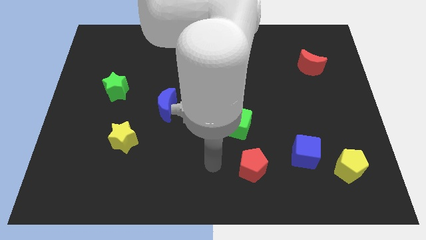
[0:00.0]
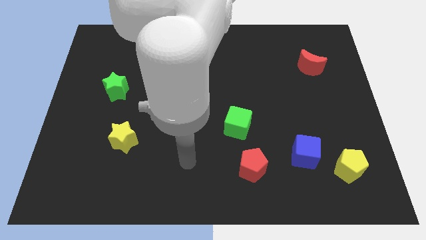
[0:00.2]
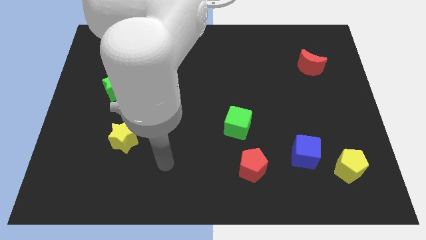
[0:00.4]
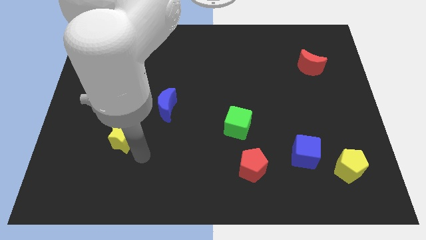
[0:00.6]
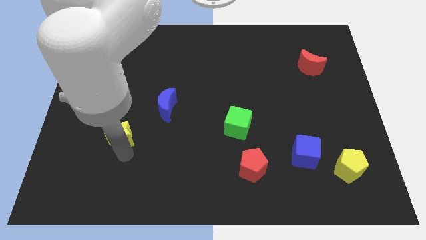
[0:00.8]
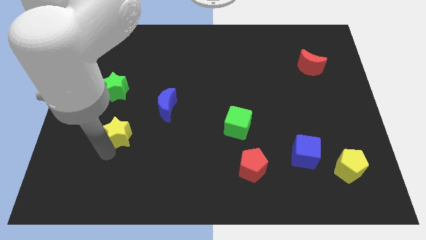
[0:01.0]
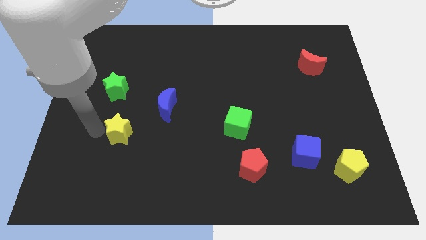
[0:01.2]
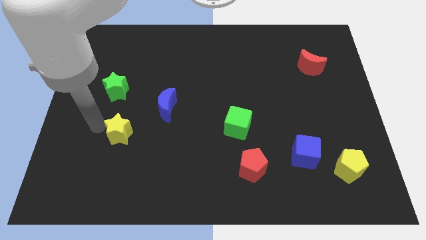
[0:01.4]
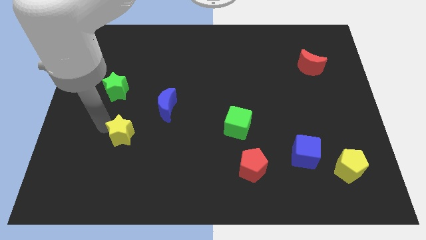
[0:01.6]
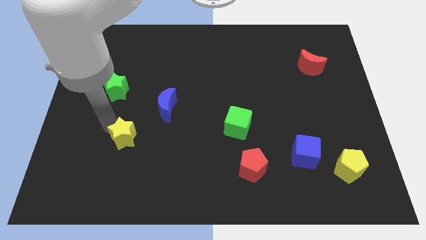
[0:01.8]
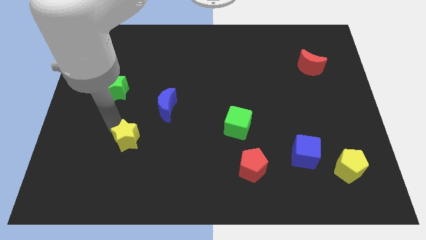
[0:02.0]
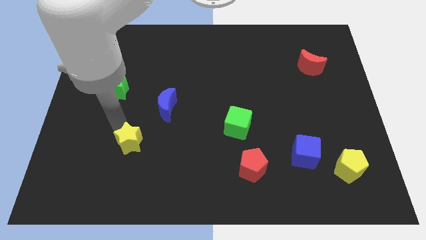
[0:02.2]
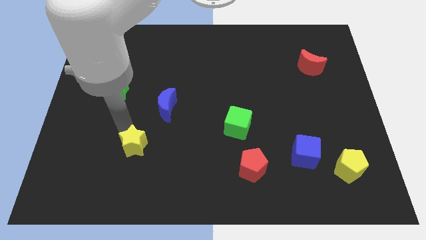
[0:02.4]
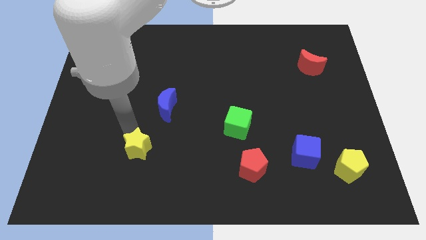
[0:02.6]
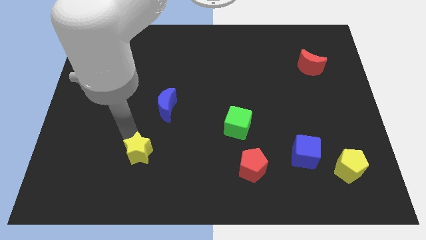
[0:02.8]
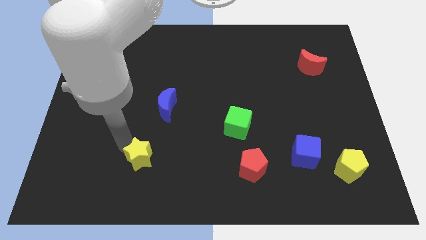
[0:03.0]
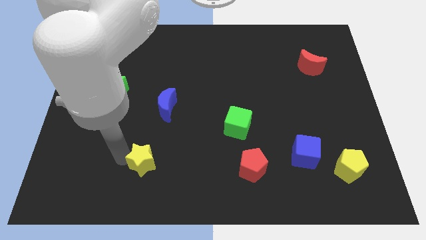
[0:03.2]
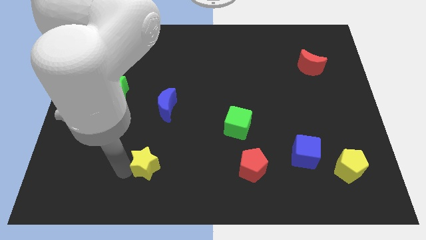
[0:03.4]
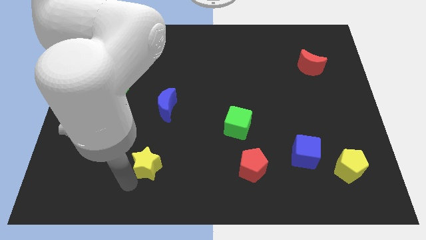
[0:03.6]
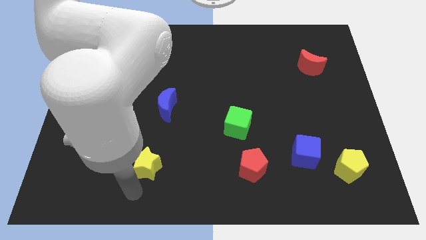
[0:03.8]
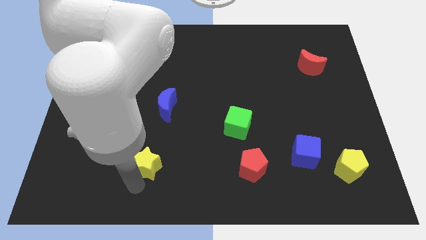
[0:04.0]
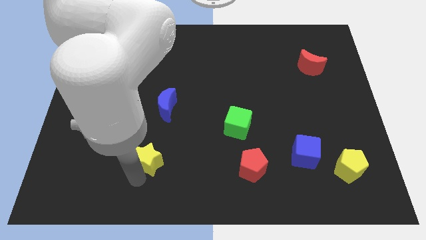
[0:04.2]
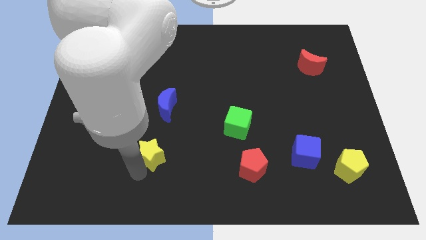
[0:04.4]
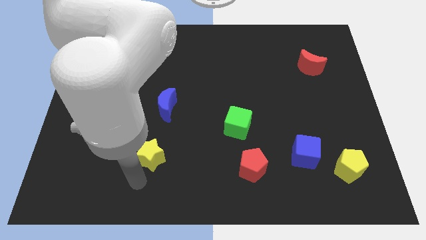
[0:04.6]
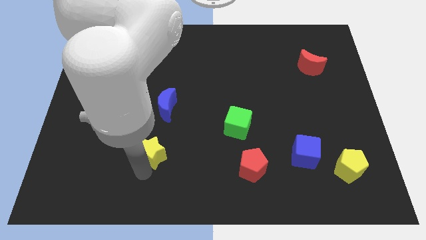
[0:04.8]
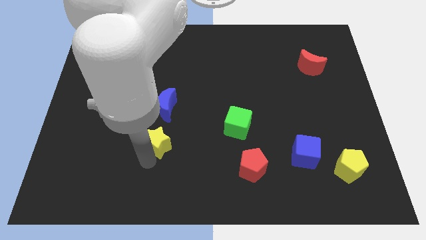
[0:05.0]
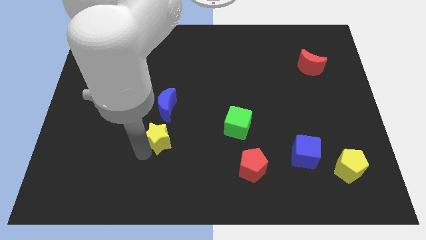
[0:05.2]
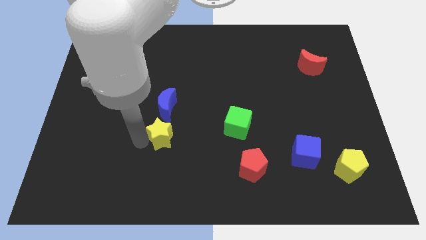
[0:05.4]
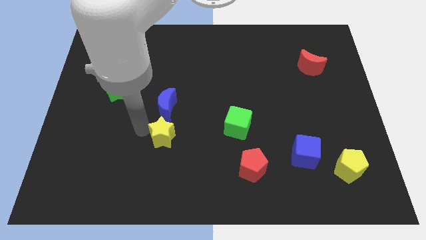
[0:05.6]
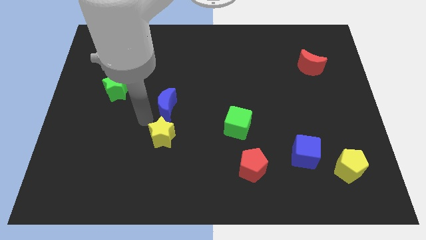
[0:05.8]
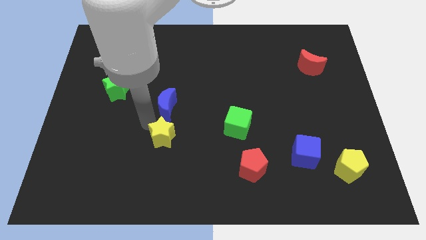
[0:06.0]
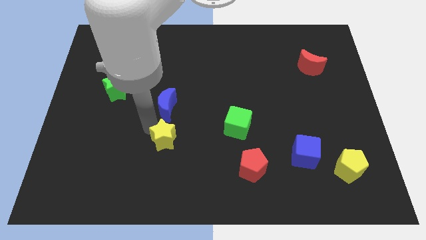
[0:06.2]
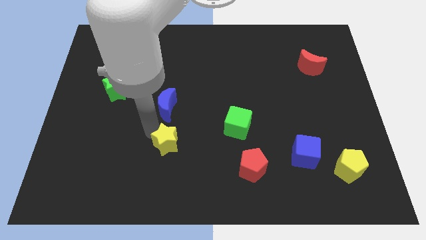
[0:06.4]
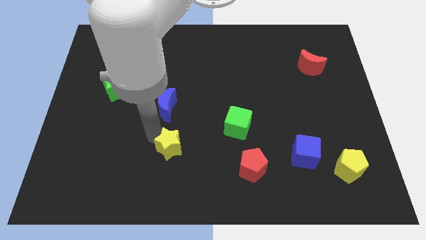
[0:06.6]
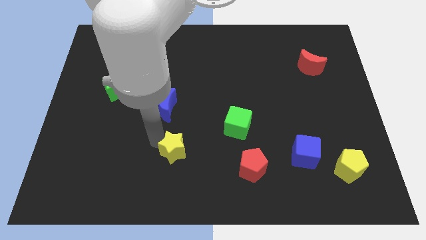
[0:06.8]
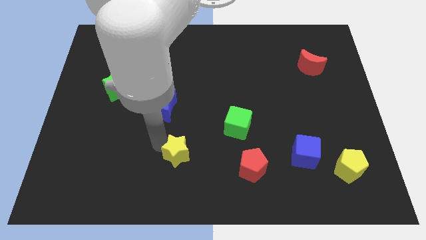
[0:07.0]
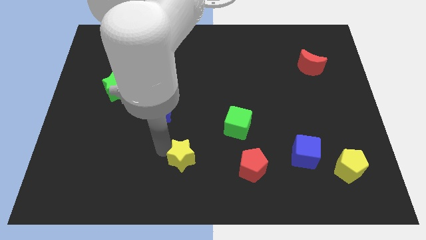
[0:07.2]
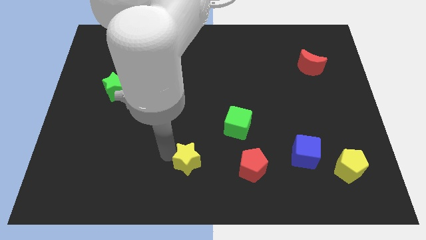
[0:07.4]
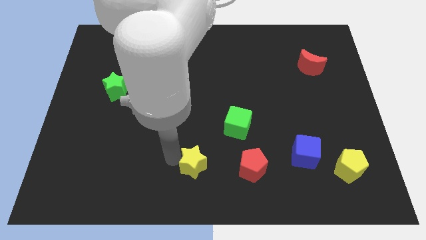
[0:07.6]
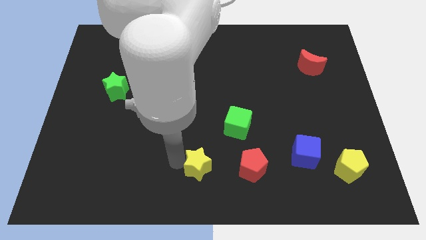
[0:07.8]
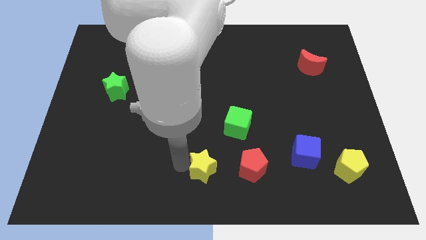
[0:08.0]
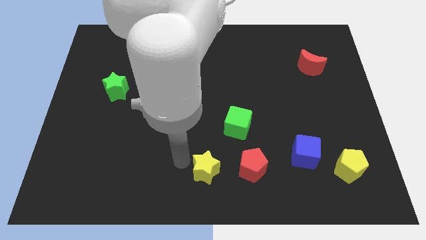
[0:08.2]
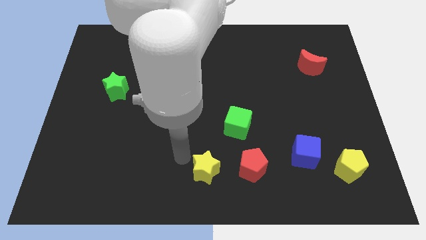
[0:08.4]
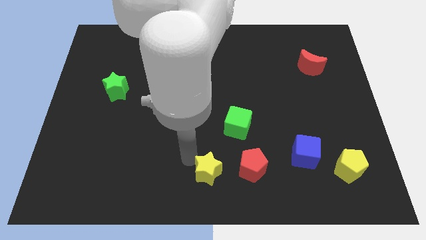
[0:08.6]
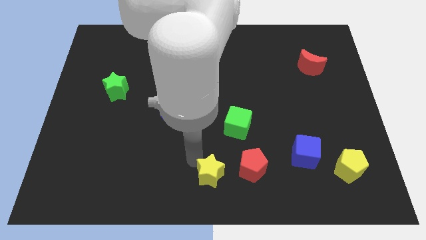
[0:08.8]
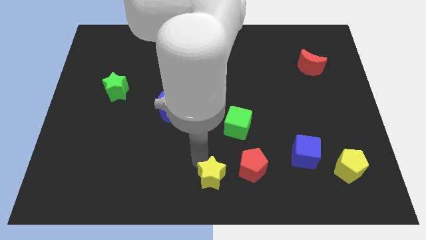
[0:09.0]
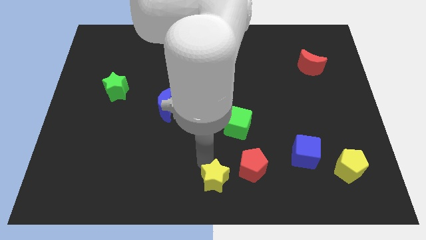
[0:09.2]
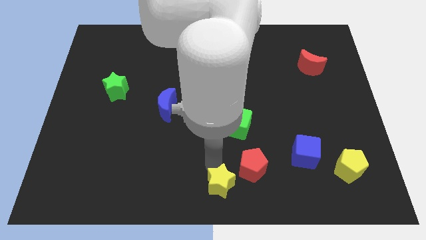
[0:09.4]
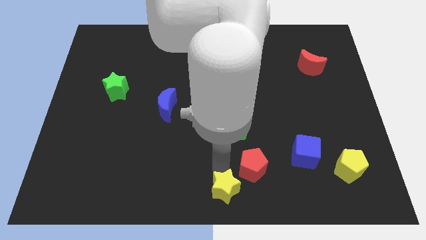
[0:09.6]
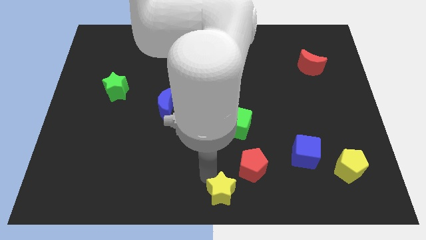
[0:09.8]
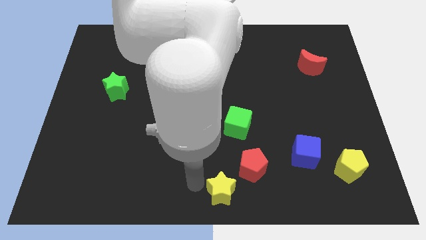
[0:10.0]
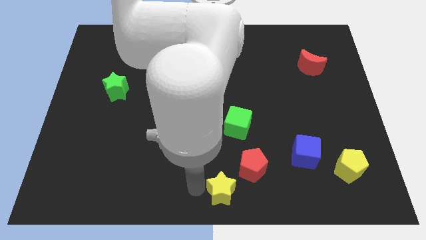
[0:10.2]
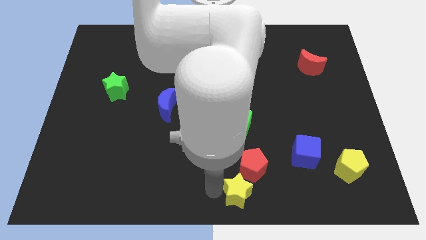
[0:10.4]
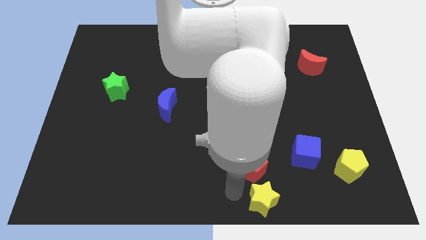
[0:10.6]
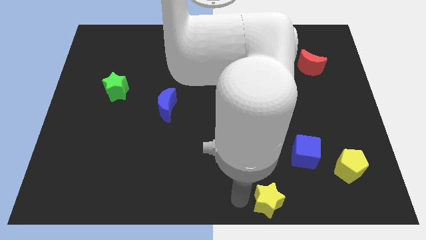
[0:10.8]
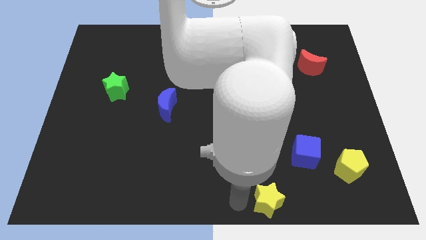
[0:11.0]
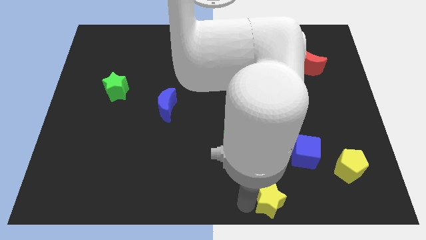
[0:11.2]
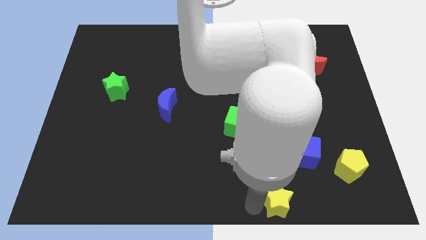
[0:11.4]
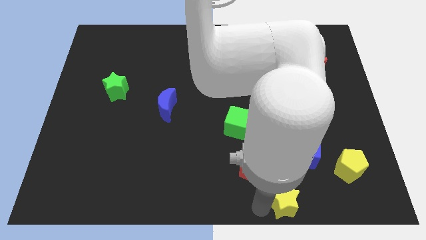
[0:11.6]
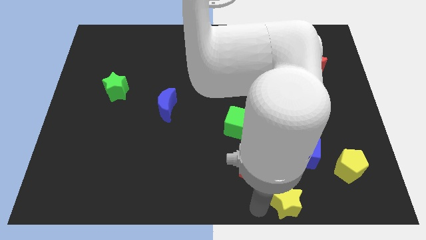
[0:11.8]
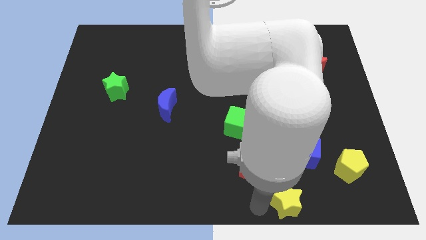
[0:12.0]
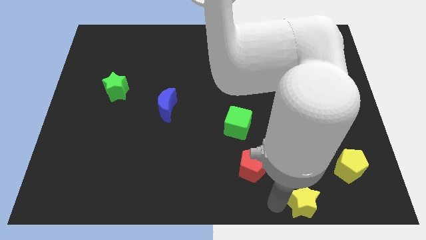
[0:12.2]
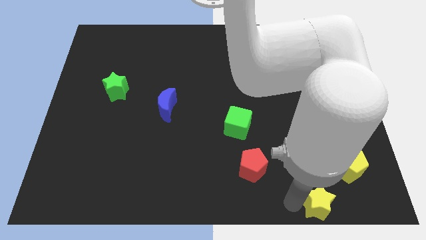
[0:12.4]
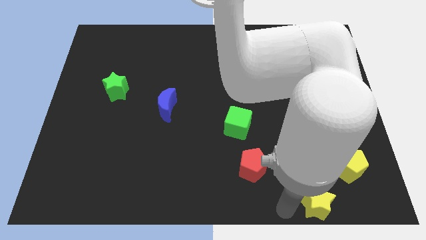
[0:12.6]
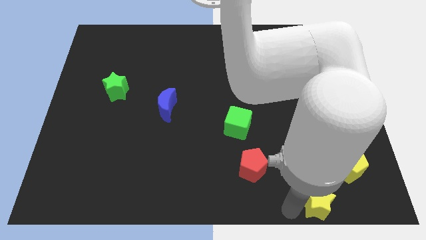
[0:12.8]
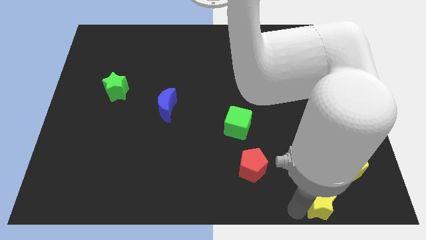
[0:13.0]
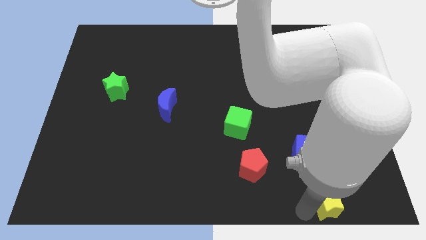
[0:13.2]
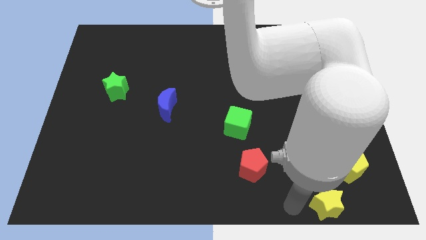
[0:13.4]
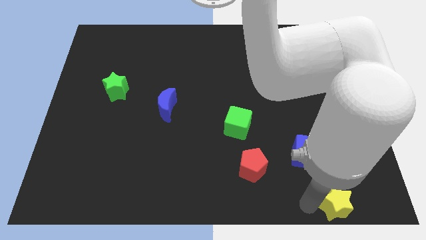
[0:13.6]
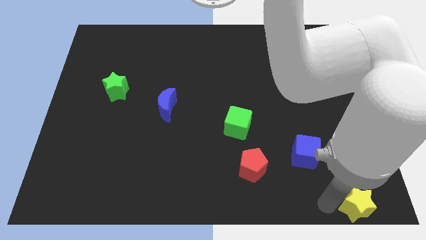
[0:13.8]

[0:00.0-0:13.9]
push the yellow star to the lower right corner
